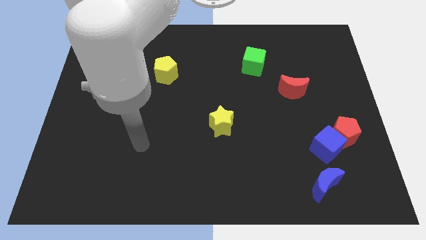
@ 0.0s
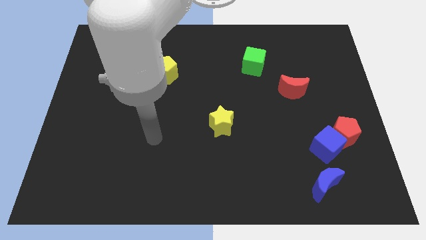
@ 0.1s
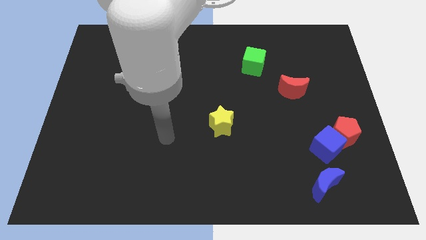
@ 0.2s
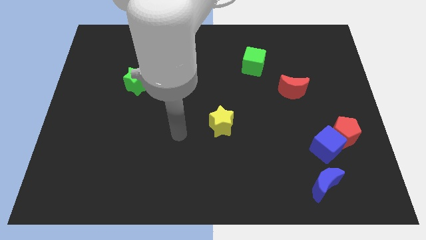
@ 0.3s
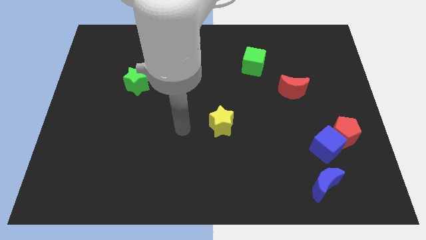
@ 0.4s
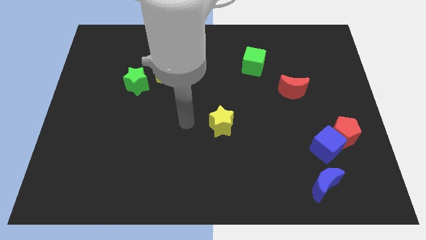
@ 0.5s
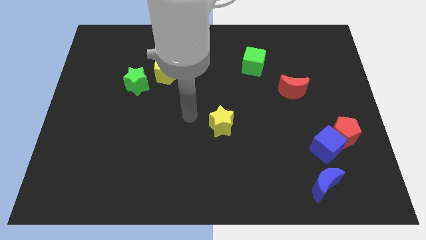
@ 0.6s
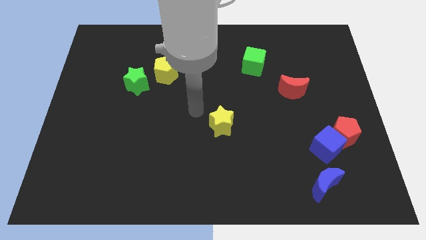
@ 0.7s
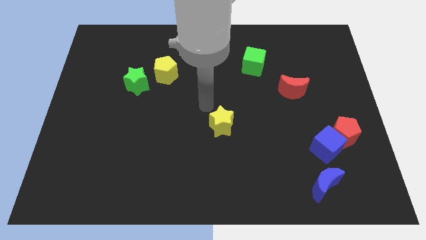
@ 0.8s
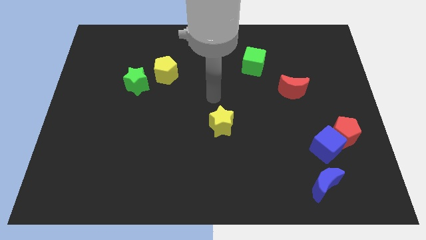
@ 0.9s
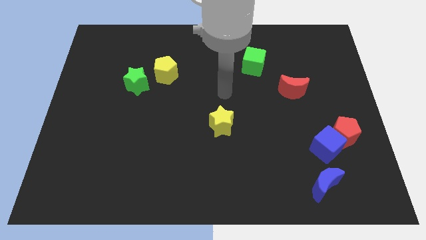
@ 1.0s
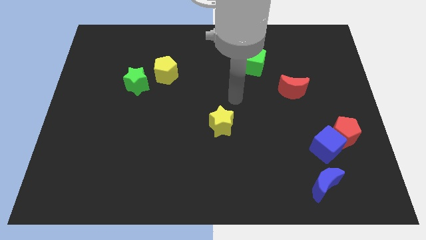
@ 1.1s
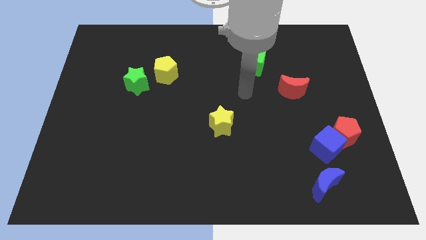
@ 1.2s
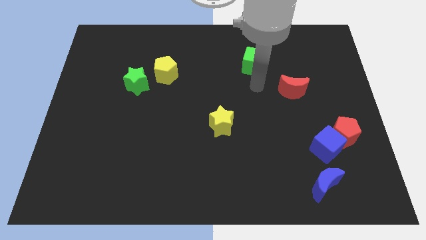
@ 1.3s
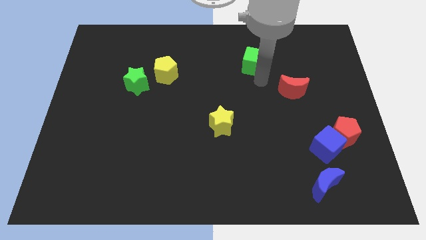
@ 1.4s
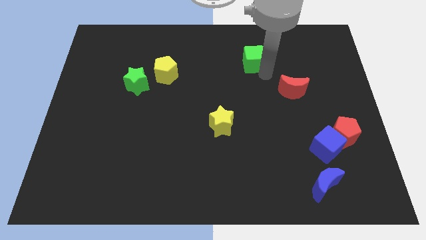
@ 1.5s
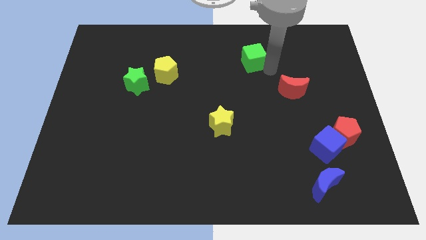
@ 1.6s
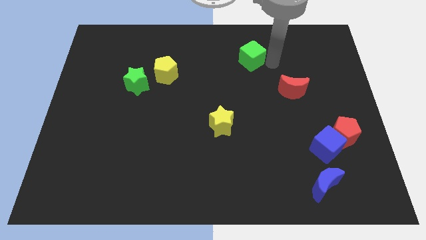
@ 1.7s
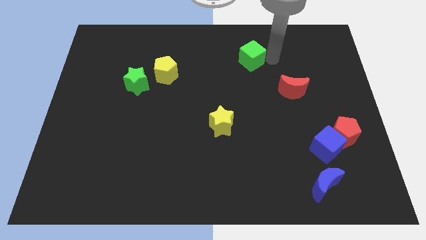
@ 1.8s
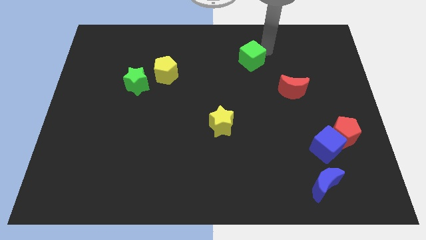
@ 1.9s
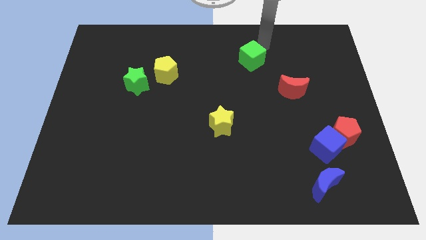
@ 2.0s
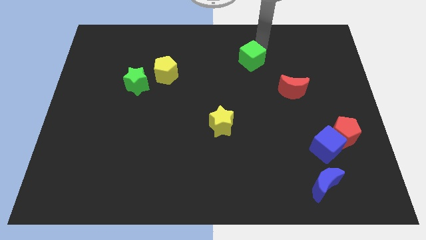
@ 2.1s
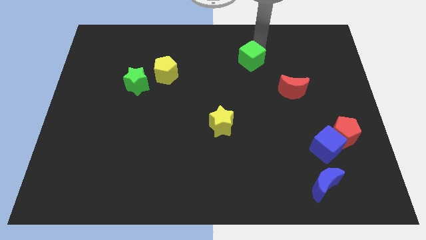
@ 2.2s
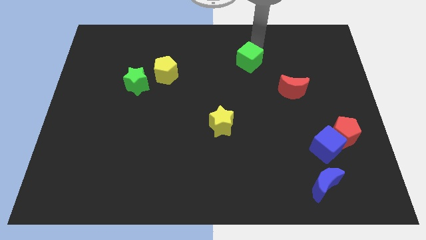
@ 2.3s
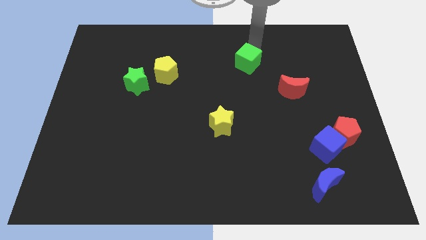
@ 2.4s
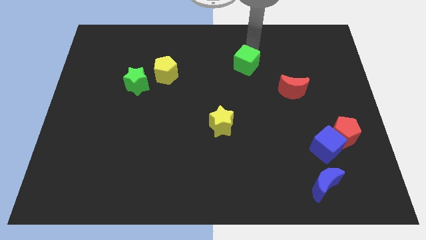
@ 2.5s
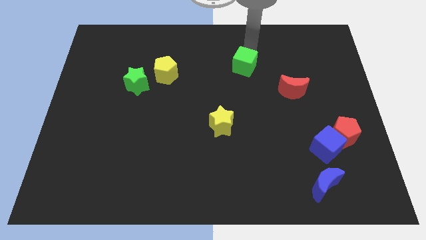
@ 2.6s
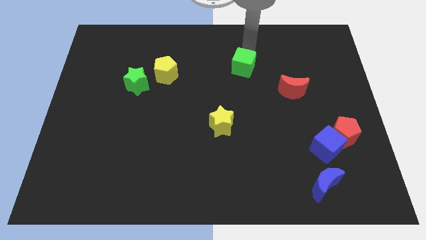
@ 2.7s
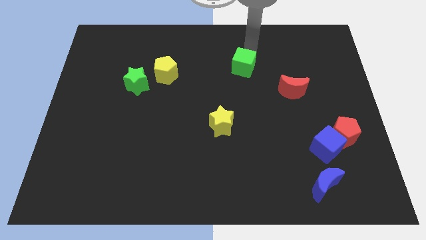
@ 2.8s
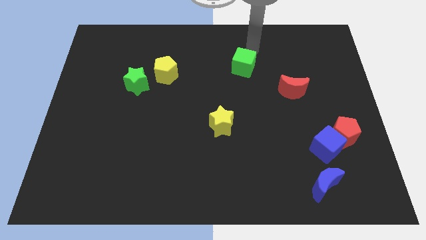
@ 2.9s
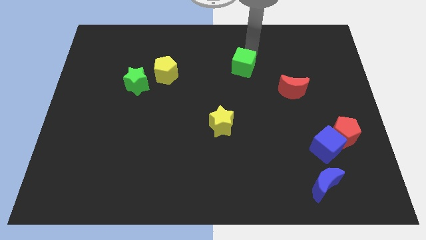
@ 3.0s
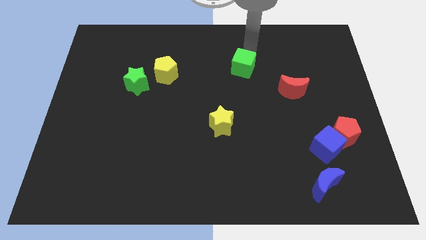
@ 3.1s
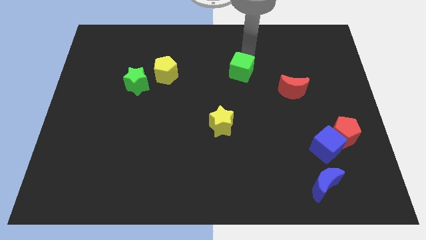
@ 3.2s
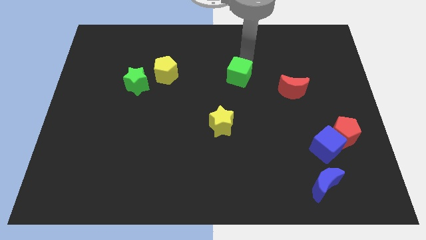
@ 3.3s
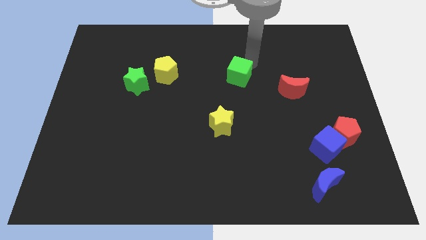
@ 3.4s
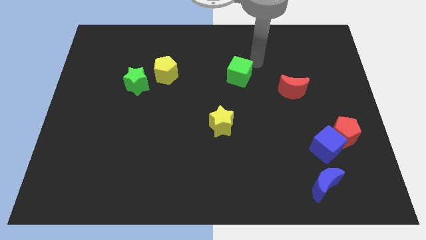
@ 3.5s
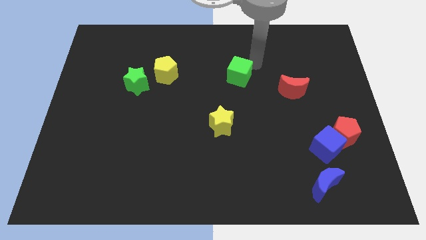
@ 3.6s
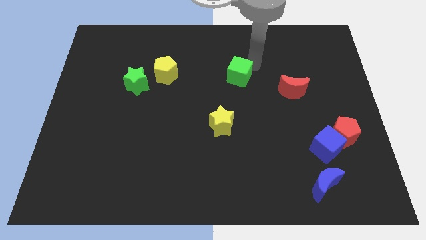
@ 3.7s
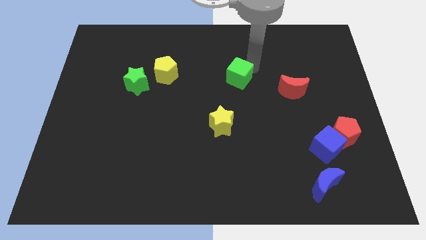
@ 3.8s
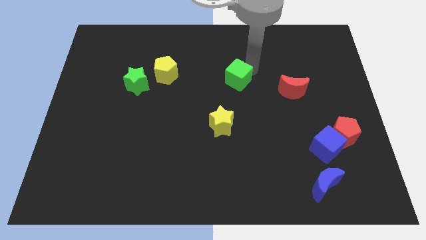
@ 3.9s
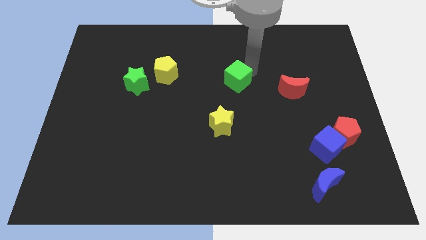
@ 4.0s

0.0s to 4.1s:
slide the green cube down and left diagonally slightly

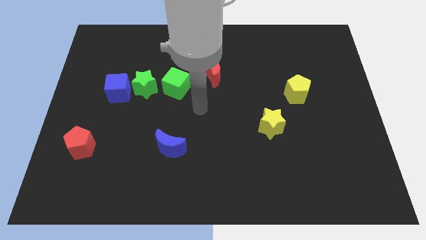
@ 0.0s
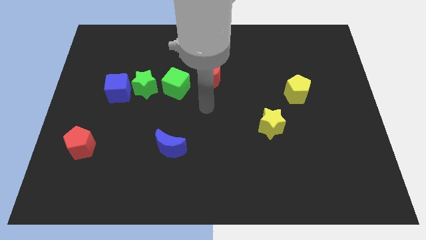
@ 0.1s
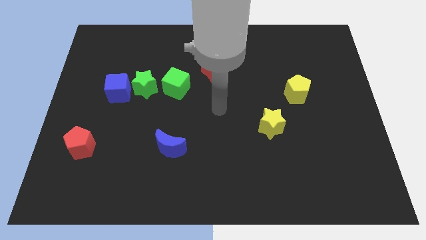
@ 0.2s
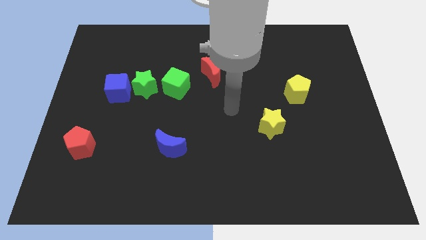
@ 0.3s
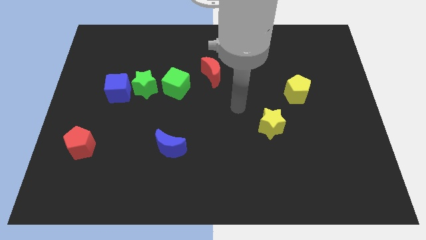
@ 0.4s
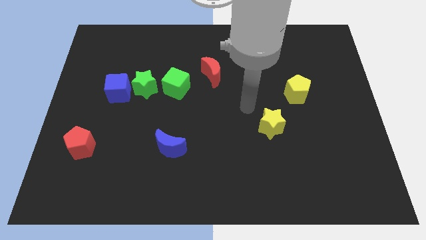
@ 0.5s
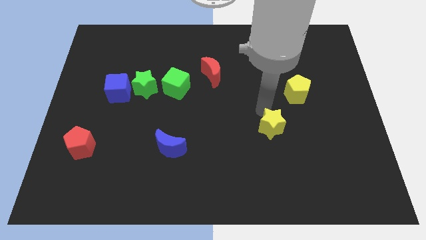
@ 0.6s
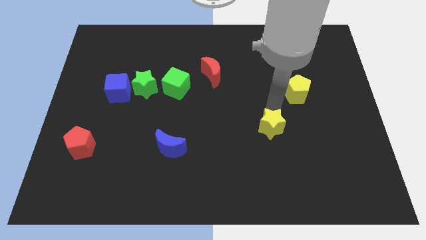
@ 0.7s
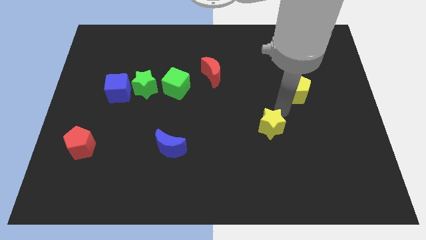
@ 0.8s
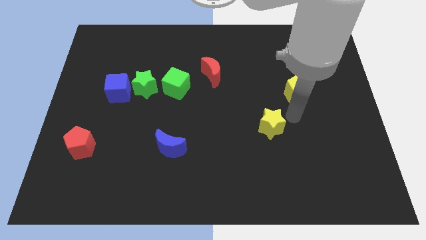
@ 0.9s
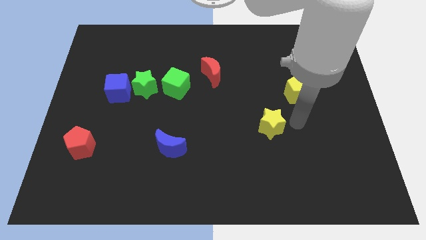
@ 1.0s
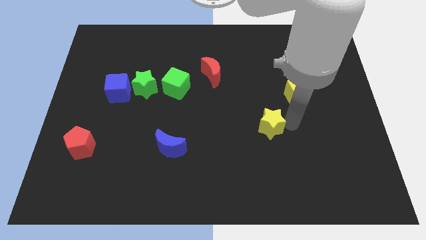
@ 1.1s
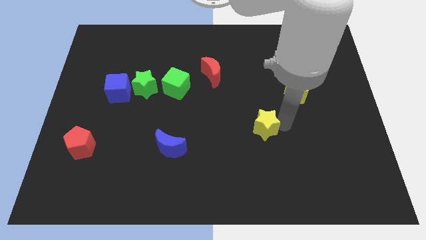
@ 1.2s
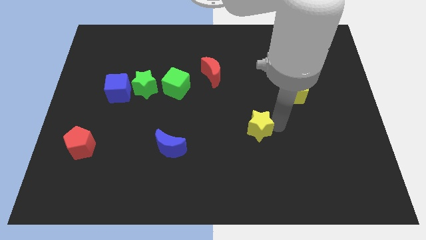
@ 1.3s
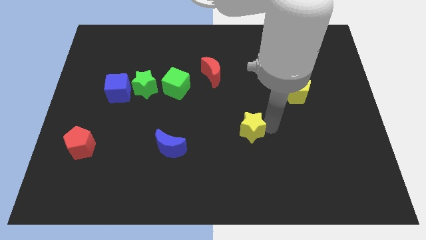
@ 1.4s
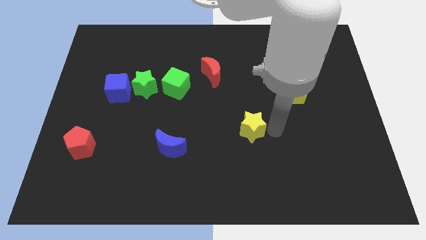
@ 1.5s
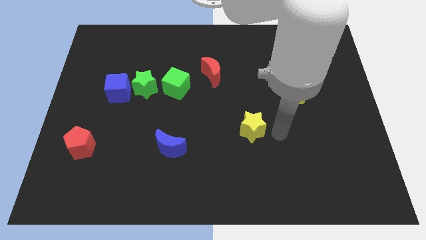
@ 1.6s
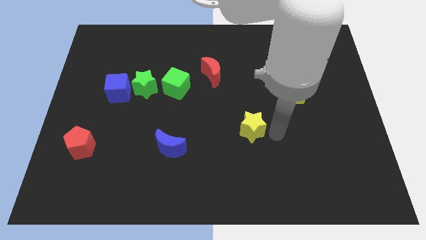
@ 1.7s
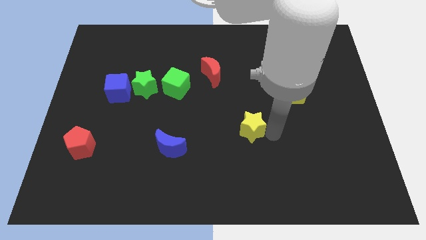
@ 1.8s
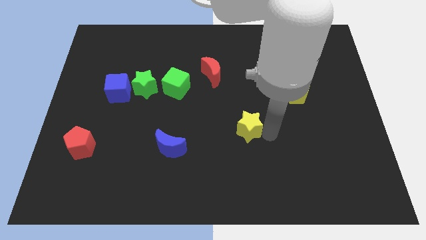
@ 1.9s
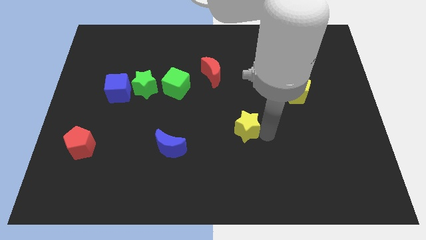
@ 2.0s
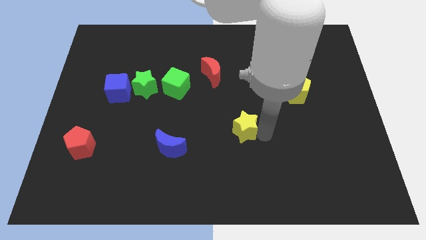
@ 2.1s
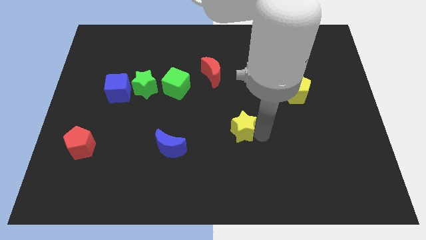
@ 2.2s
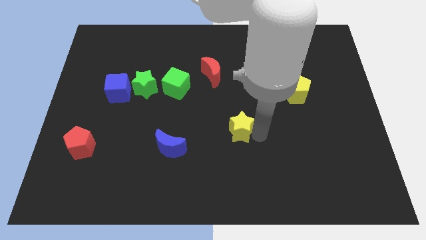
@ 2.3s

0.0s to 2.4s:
slightly move the yellow star to the left

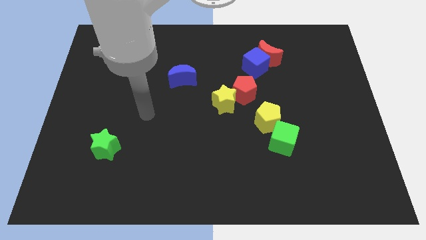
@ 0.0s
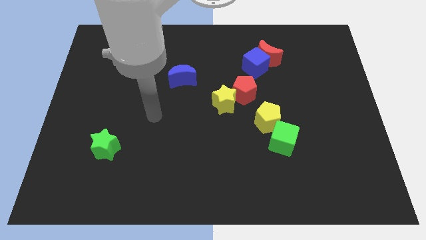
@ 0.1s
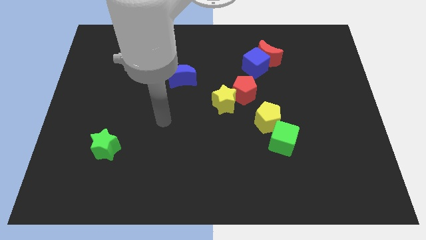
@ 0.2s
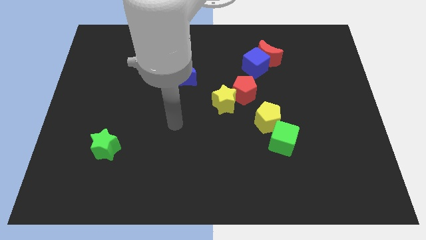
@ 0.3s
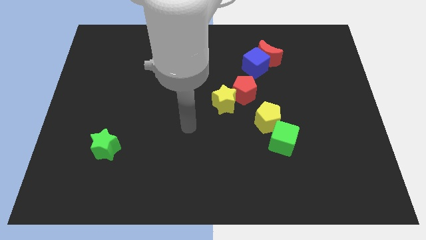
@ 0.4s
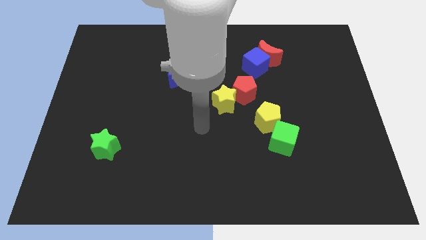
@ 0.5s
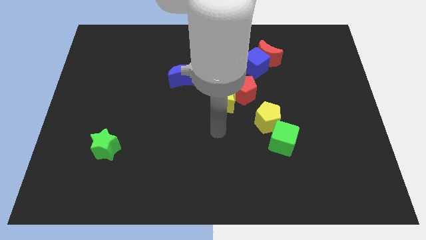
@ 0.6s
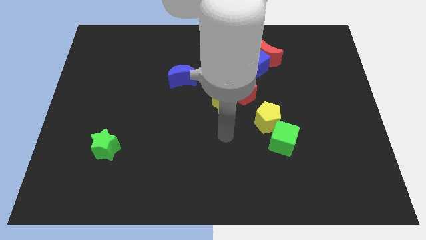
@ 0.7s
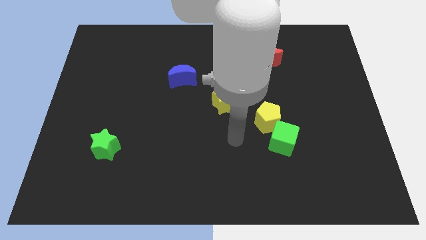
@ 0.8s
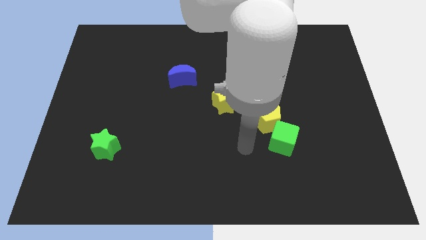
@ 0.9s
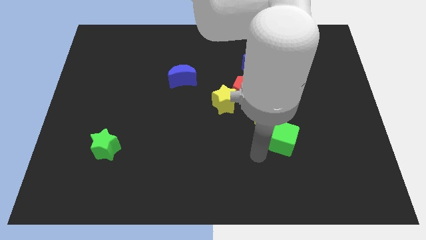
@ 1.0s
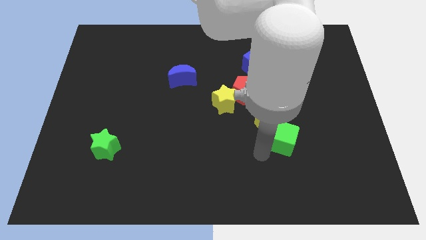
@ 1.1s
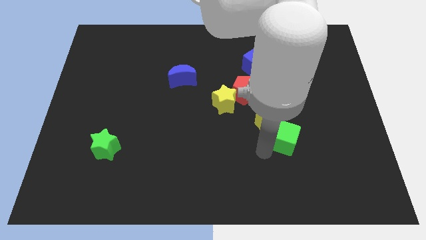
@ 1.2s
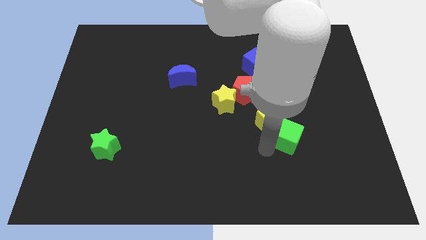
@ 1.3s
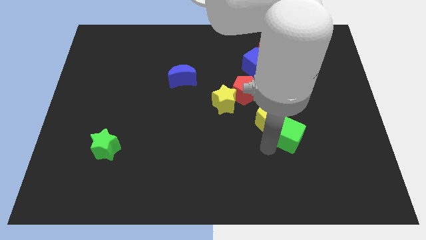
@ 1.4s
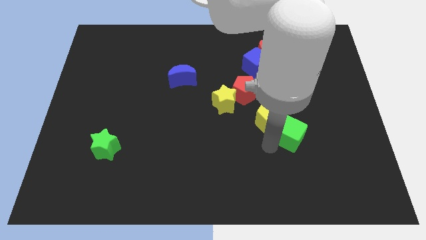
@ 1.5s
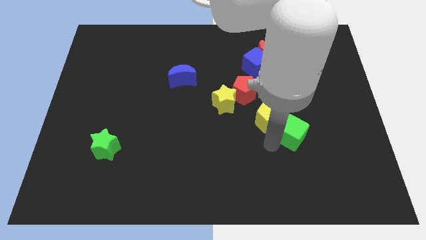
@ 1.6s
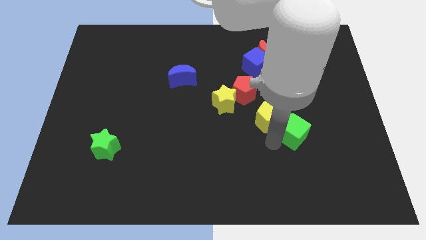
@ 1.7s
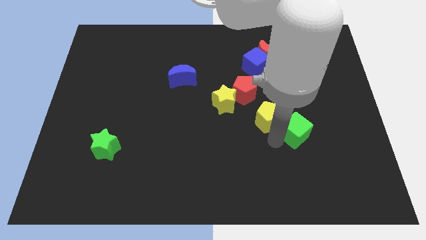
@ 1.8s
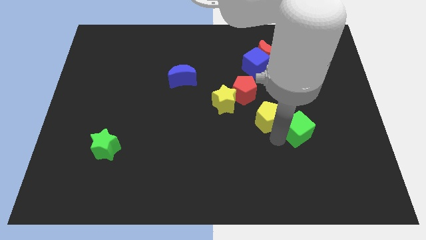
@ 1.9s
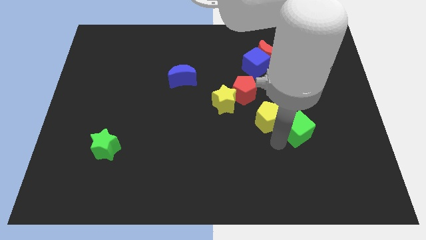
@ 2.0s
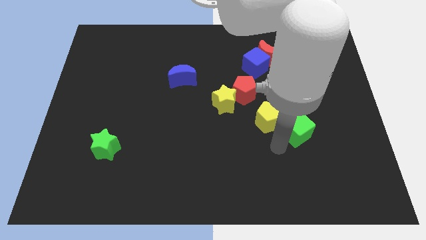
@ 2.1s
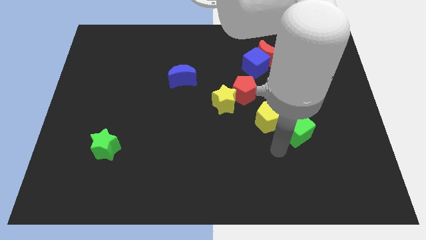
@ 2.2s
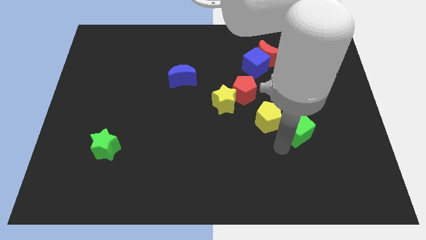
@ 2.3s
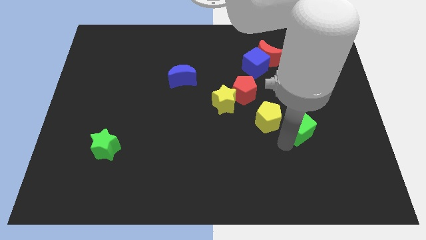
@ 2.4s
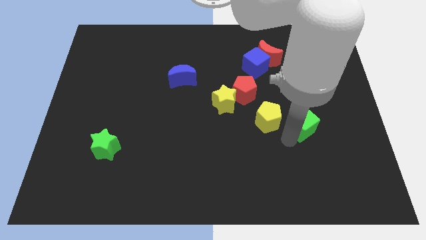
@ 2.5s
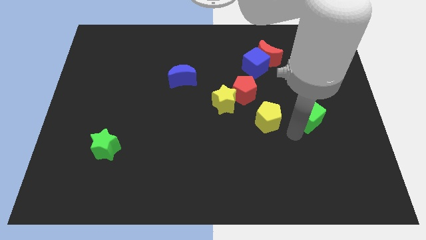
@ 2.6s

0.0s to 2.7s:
slide the green cube upwards and right somewhat
